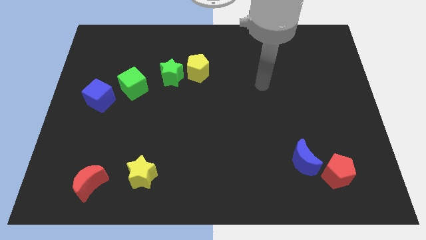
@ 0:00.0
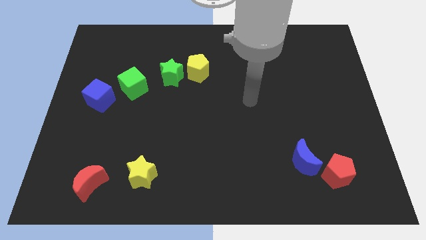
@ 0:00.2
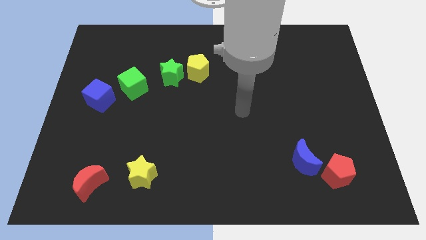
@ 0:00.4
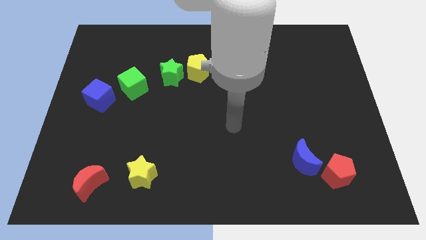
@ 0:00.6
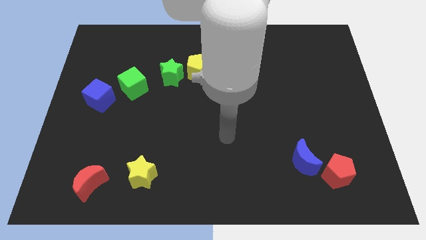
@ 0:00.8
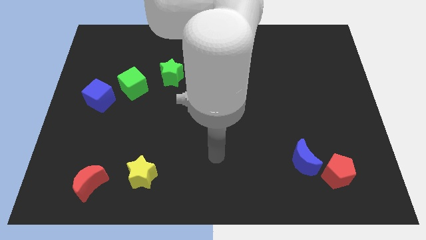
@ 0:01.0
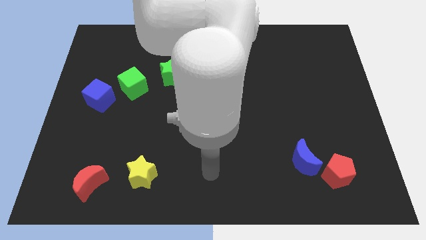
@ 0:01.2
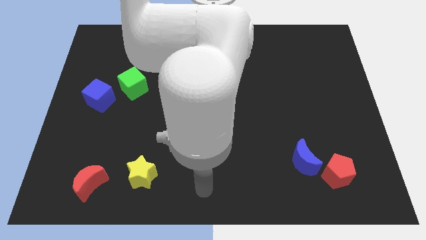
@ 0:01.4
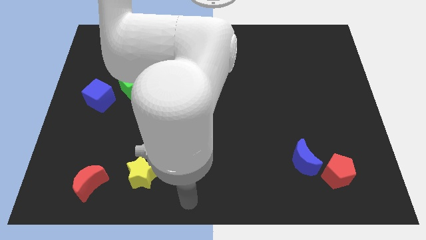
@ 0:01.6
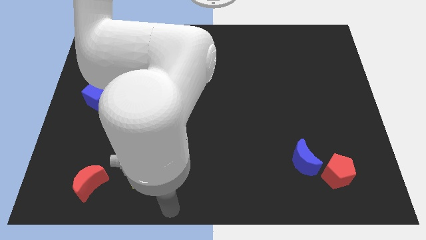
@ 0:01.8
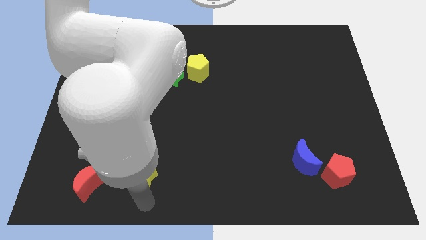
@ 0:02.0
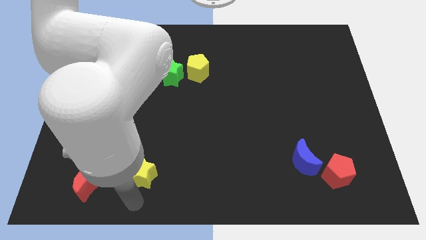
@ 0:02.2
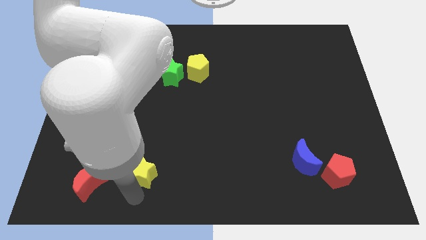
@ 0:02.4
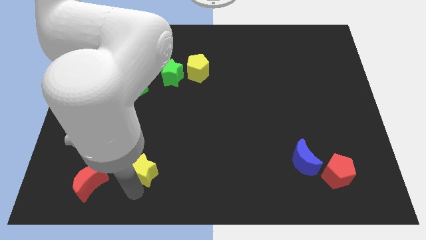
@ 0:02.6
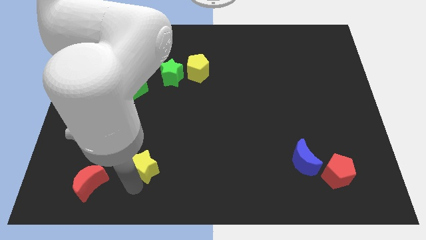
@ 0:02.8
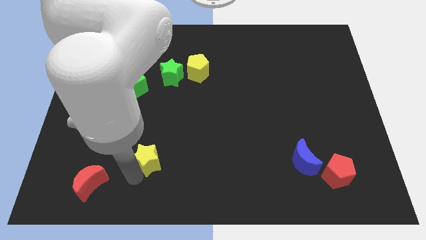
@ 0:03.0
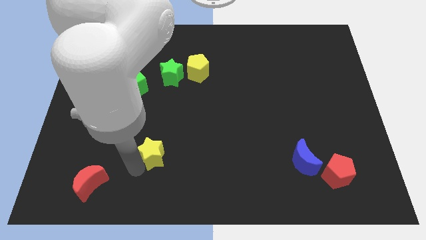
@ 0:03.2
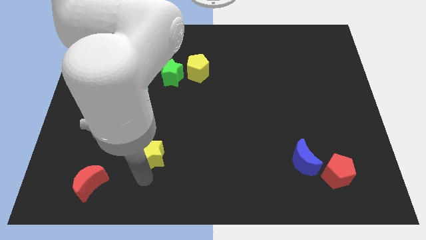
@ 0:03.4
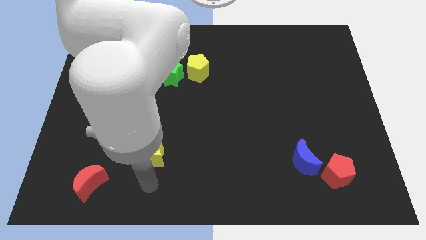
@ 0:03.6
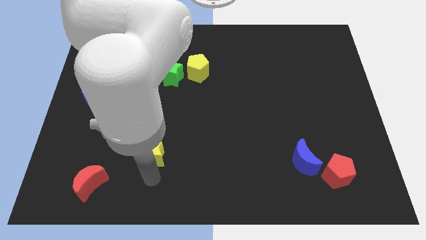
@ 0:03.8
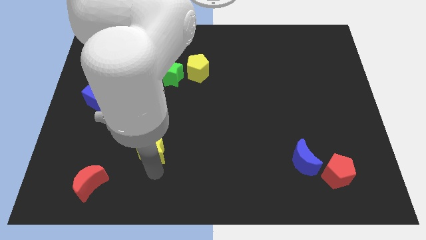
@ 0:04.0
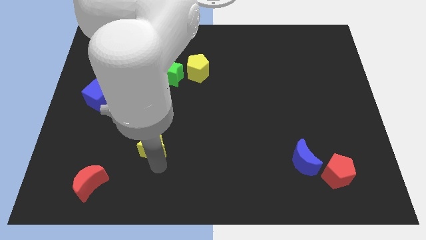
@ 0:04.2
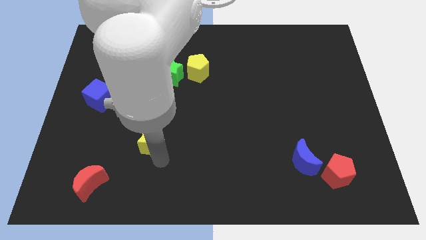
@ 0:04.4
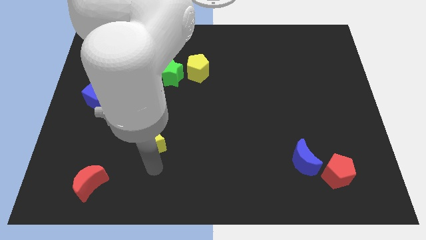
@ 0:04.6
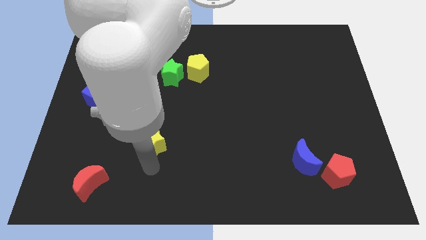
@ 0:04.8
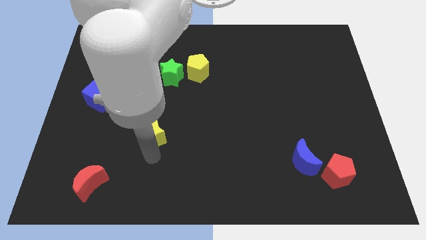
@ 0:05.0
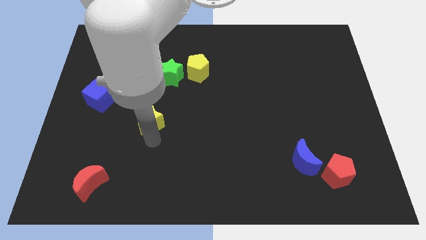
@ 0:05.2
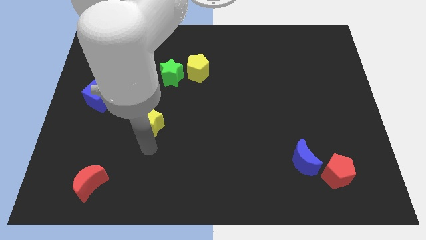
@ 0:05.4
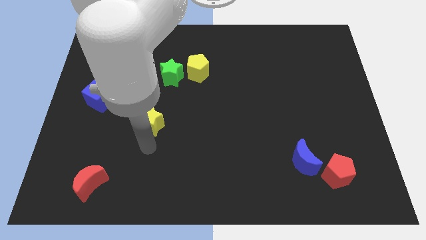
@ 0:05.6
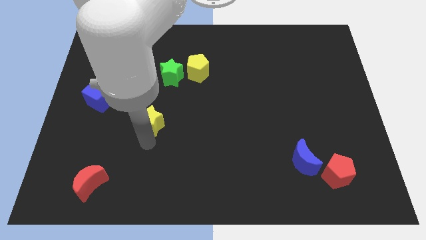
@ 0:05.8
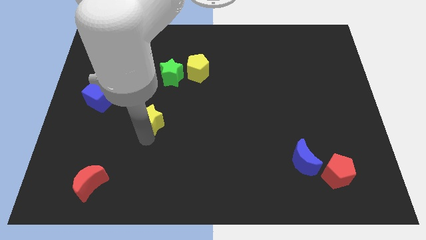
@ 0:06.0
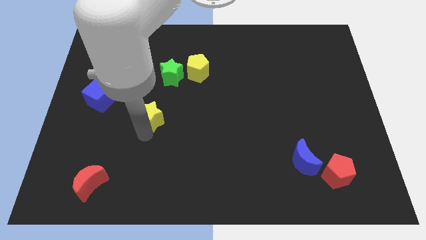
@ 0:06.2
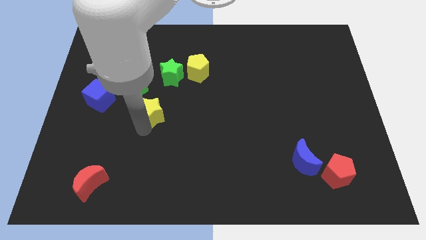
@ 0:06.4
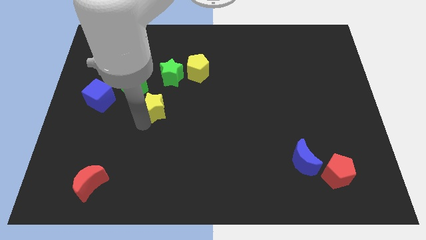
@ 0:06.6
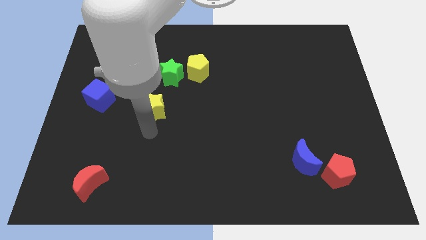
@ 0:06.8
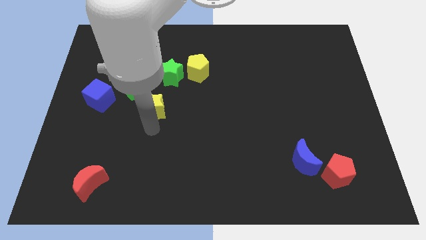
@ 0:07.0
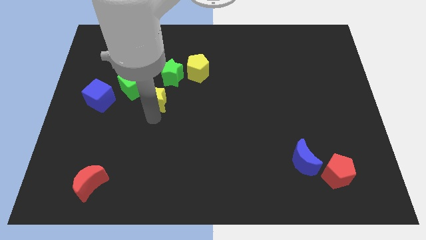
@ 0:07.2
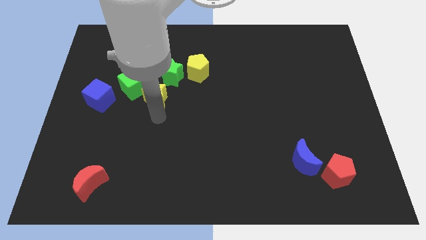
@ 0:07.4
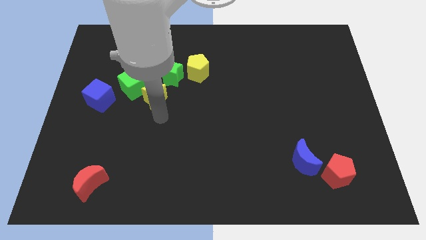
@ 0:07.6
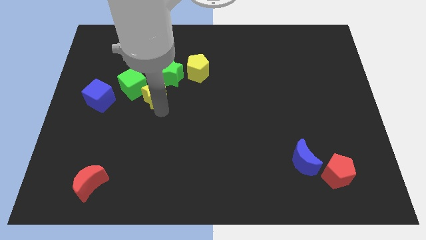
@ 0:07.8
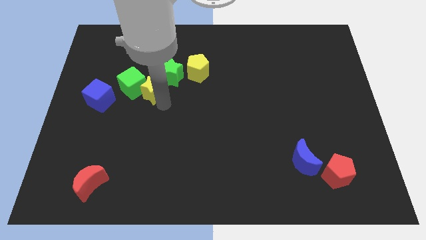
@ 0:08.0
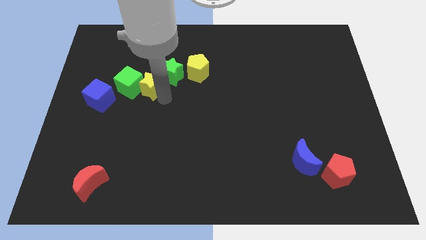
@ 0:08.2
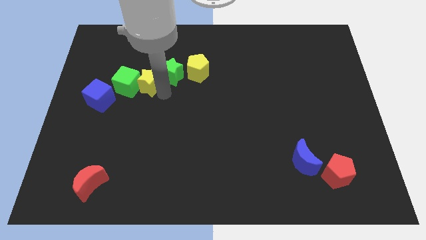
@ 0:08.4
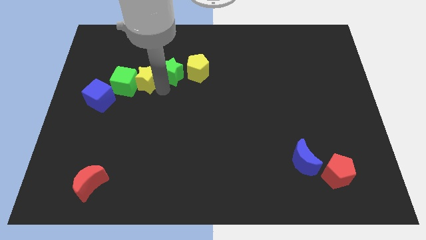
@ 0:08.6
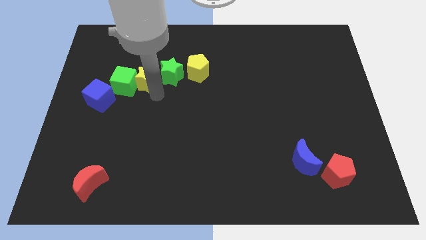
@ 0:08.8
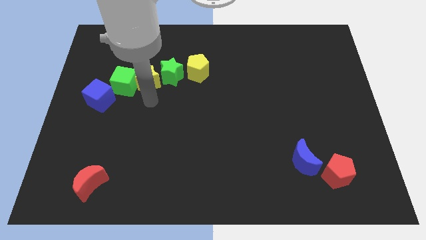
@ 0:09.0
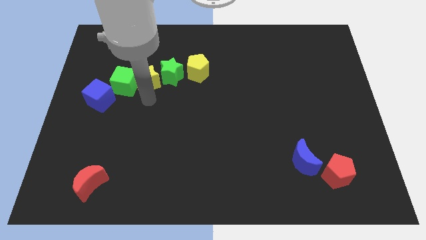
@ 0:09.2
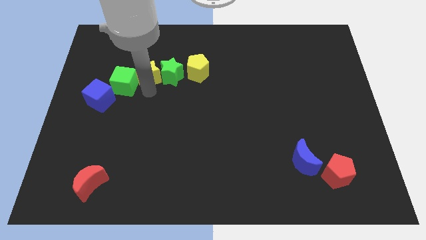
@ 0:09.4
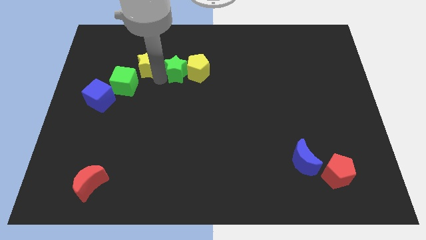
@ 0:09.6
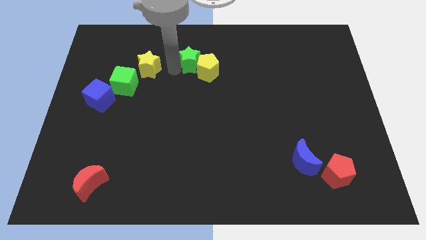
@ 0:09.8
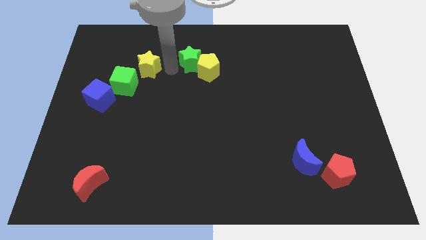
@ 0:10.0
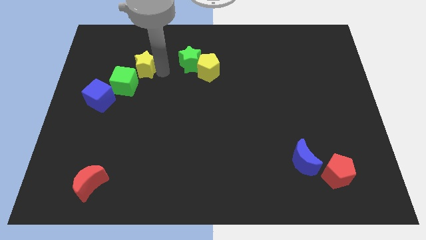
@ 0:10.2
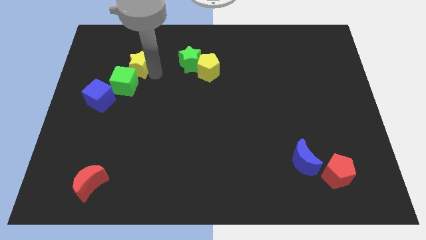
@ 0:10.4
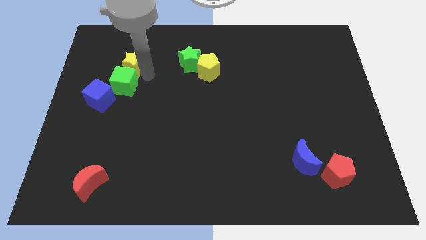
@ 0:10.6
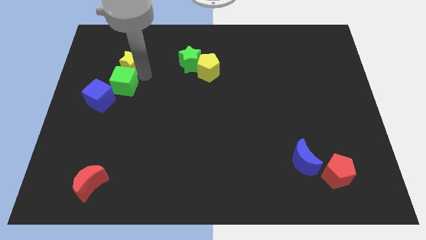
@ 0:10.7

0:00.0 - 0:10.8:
move the yellow star to the top left of the green cube

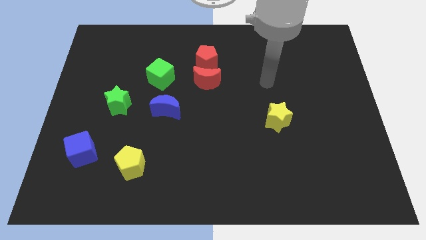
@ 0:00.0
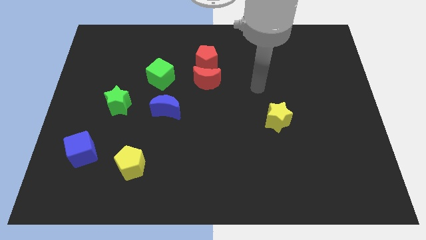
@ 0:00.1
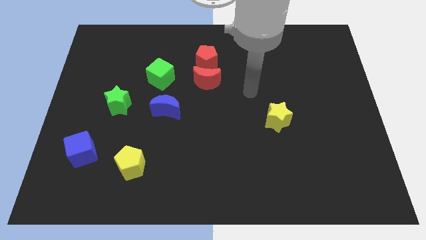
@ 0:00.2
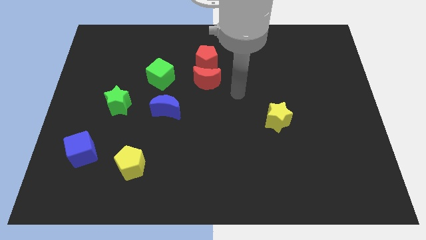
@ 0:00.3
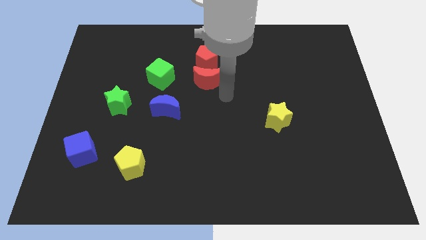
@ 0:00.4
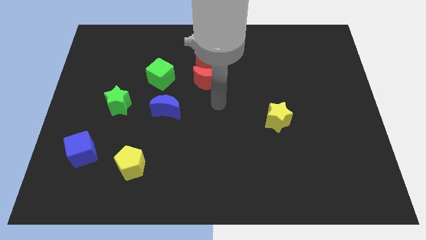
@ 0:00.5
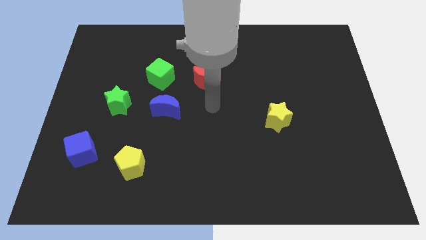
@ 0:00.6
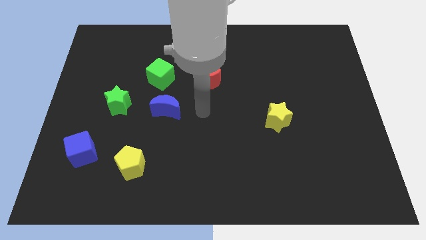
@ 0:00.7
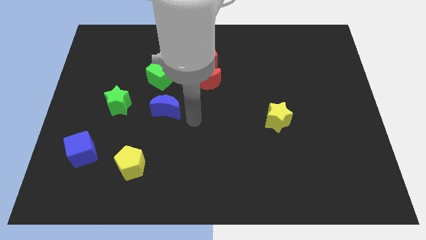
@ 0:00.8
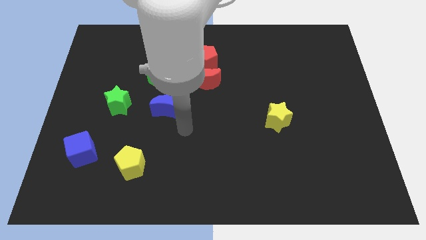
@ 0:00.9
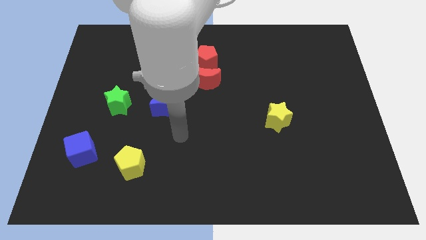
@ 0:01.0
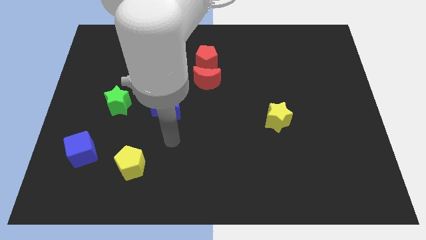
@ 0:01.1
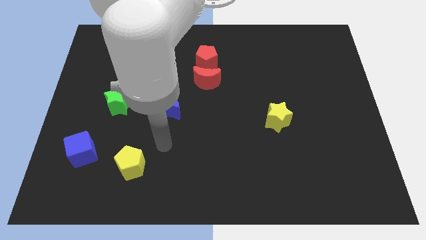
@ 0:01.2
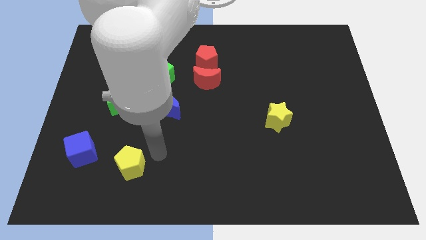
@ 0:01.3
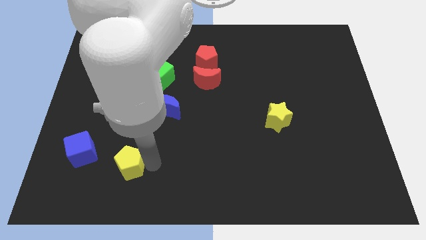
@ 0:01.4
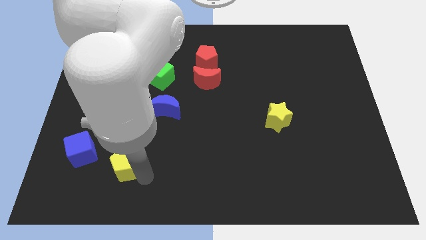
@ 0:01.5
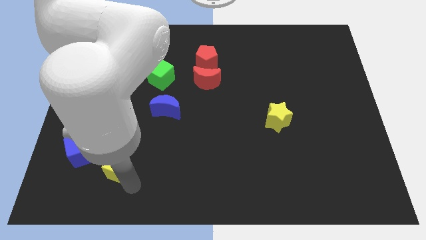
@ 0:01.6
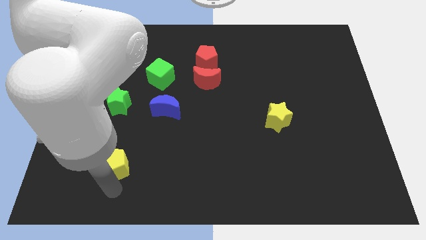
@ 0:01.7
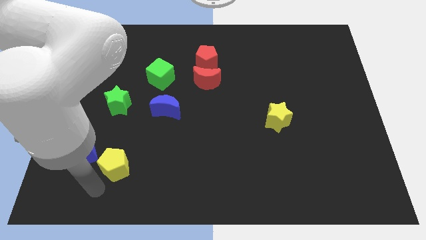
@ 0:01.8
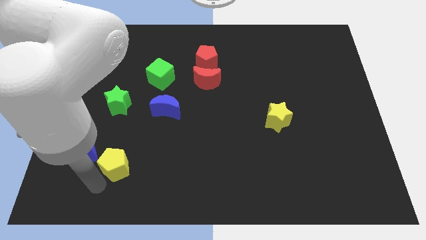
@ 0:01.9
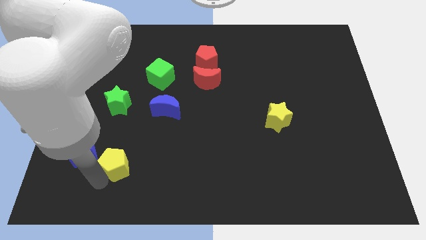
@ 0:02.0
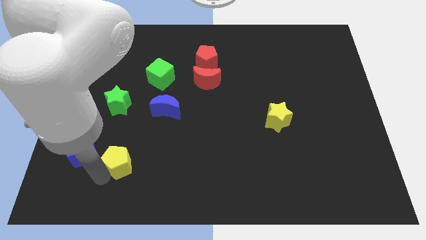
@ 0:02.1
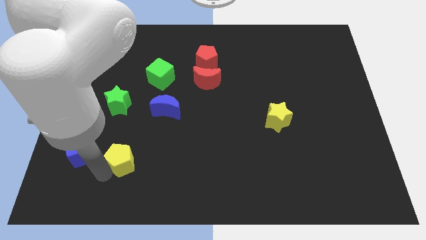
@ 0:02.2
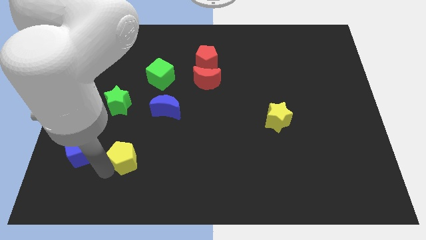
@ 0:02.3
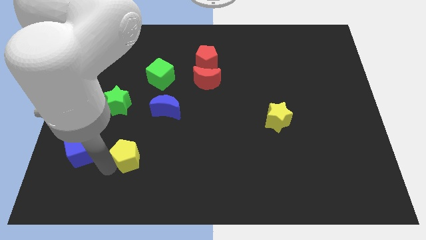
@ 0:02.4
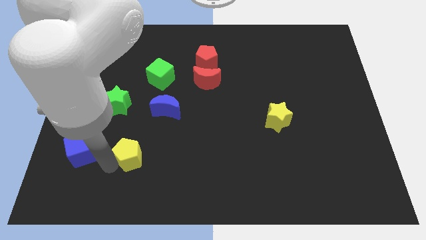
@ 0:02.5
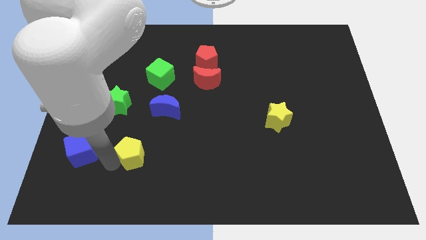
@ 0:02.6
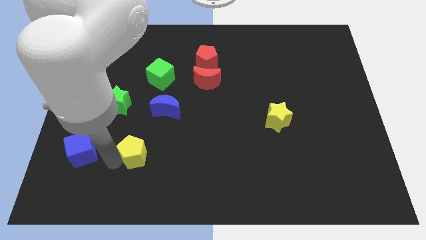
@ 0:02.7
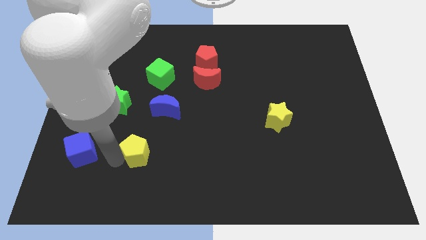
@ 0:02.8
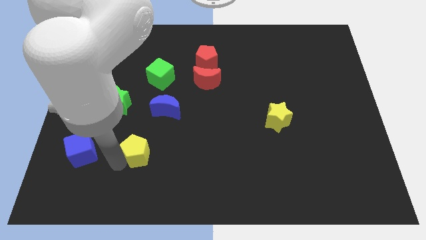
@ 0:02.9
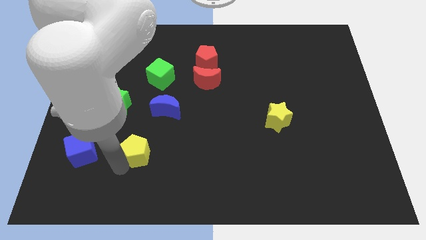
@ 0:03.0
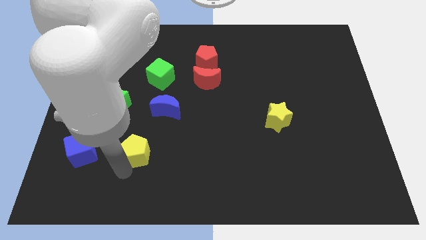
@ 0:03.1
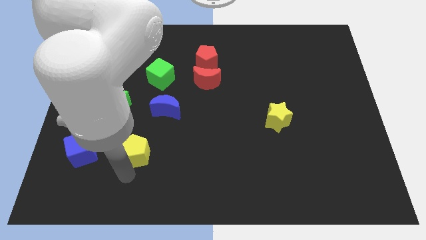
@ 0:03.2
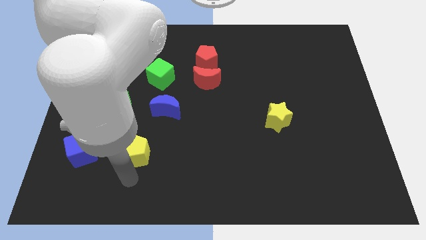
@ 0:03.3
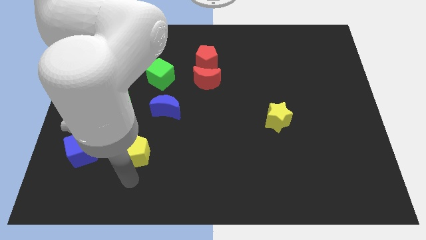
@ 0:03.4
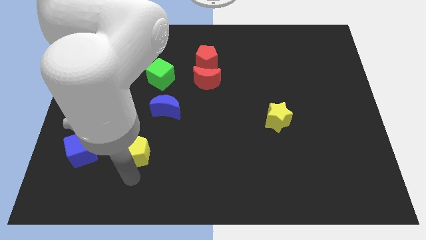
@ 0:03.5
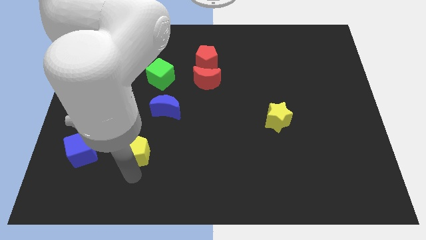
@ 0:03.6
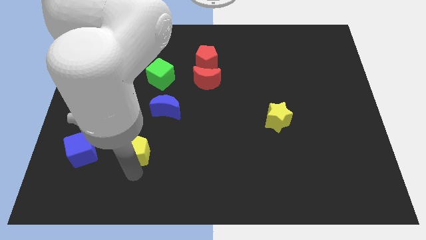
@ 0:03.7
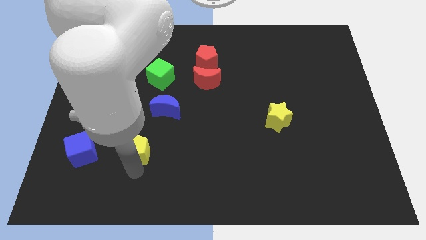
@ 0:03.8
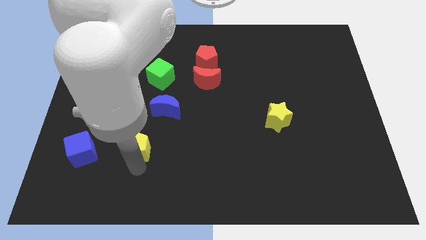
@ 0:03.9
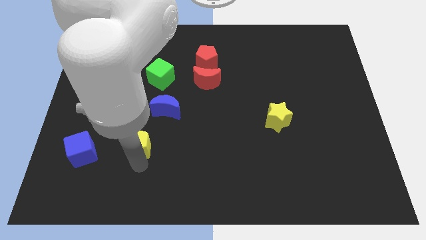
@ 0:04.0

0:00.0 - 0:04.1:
slide the yellow pentagon to the bottom left side of the blue moon
